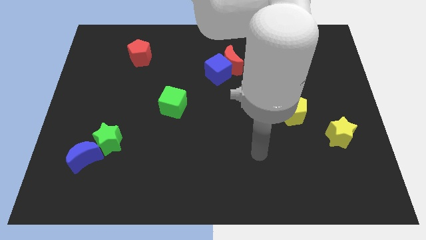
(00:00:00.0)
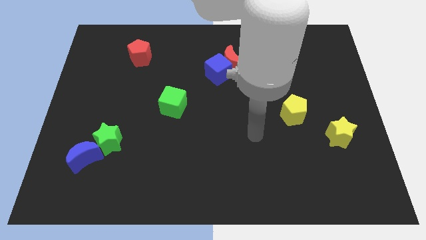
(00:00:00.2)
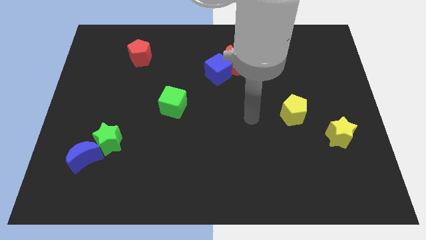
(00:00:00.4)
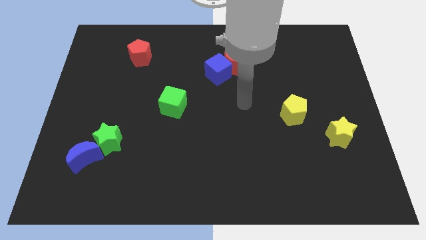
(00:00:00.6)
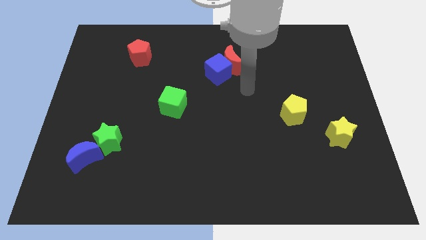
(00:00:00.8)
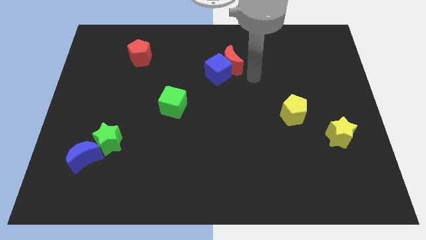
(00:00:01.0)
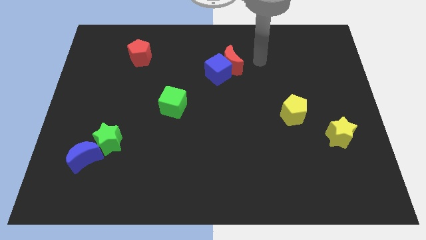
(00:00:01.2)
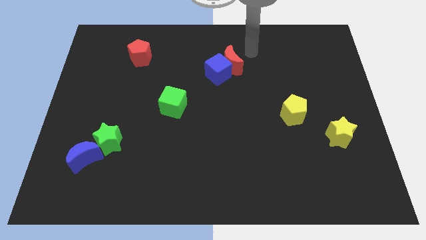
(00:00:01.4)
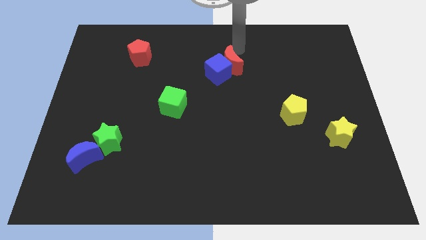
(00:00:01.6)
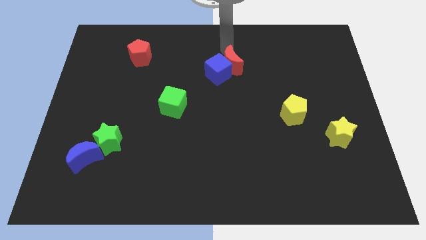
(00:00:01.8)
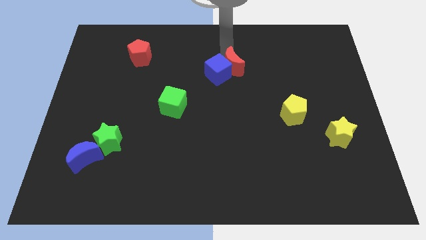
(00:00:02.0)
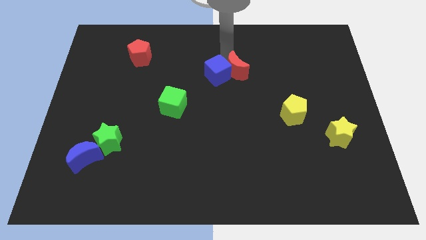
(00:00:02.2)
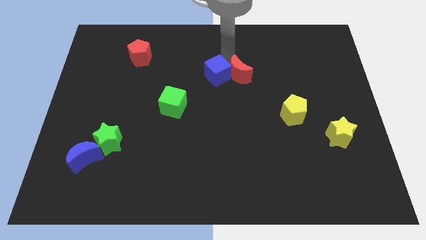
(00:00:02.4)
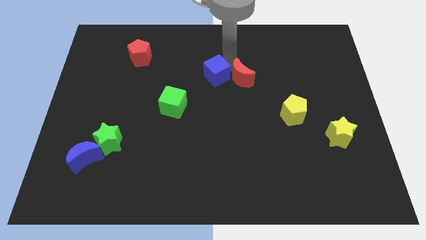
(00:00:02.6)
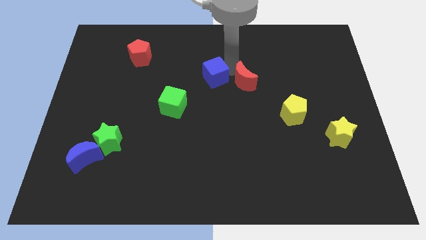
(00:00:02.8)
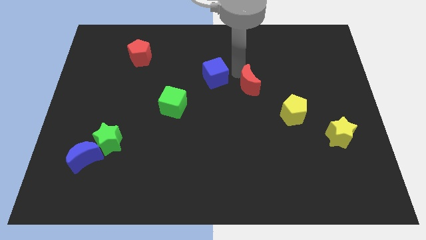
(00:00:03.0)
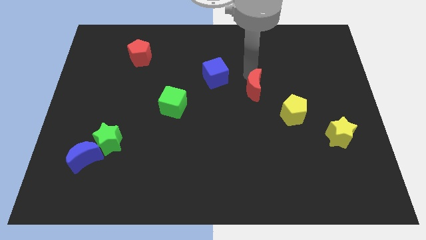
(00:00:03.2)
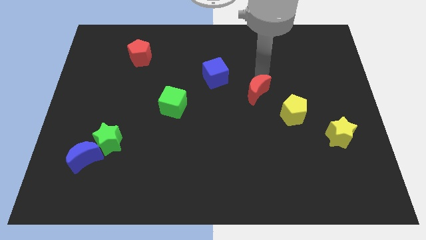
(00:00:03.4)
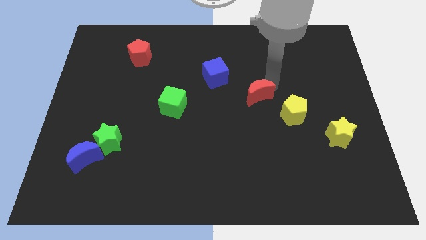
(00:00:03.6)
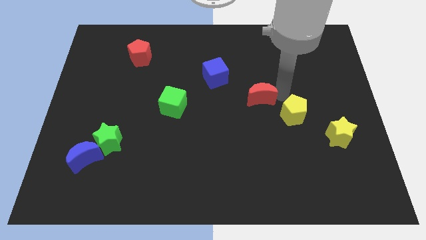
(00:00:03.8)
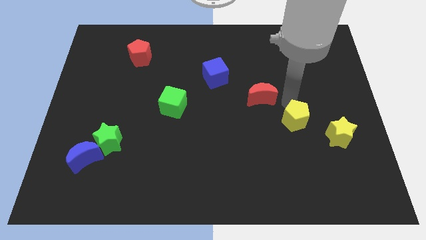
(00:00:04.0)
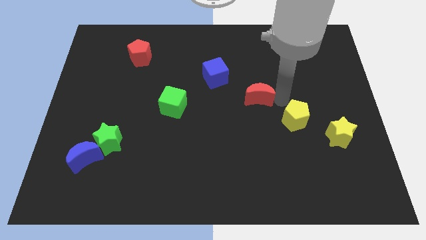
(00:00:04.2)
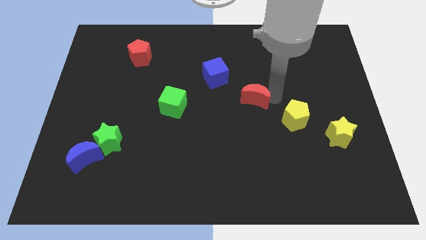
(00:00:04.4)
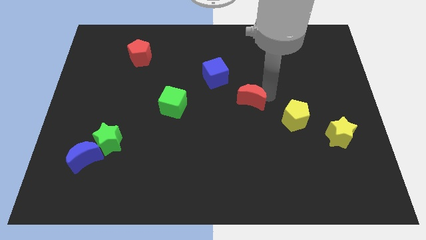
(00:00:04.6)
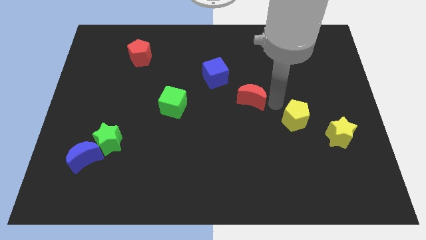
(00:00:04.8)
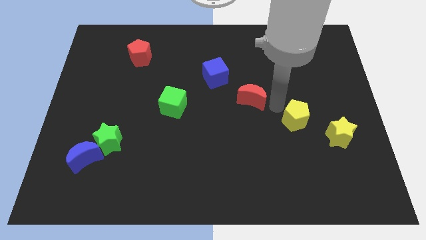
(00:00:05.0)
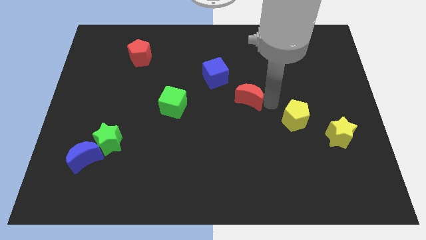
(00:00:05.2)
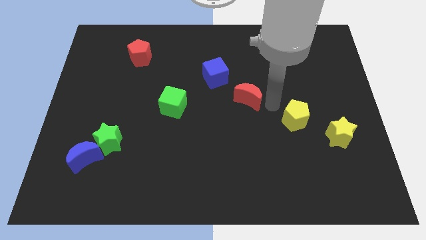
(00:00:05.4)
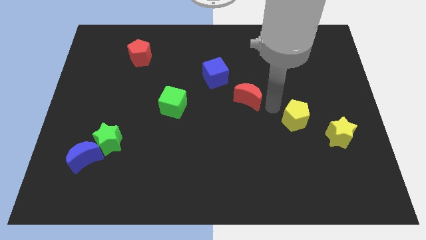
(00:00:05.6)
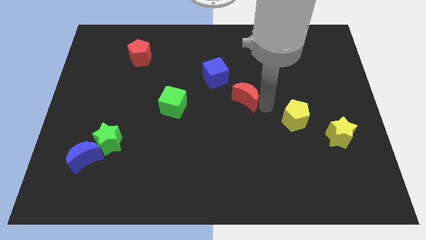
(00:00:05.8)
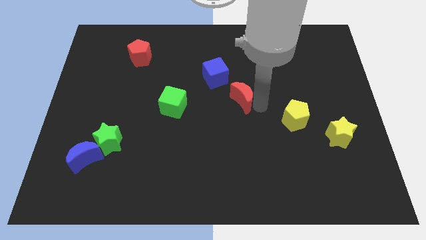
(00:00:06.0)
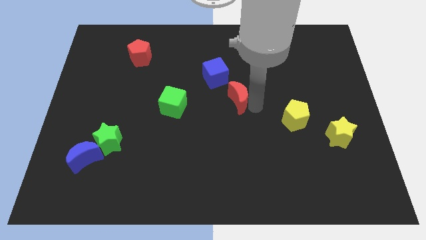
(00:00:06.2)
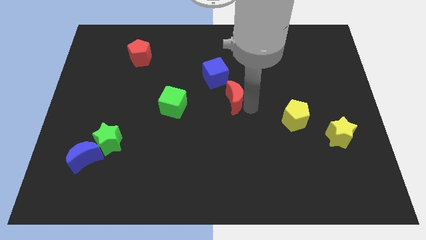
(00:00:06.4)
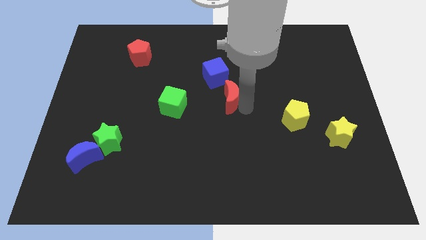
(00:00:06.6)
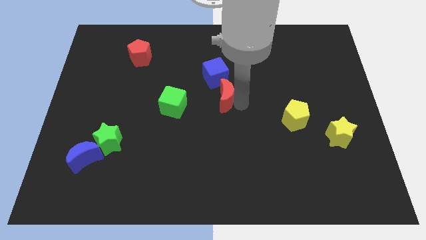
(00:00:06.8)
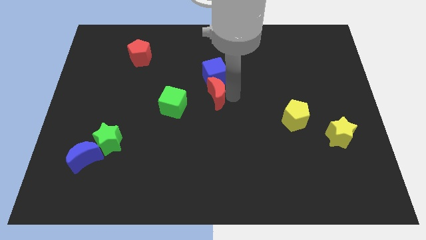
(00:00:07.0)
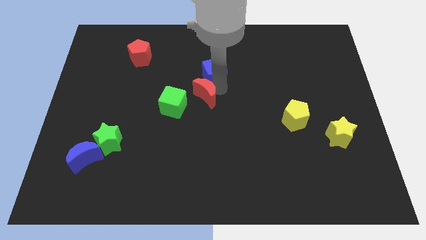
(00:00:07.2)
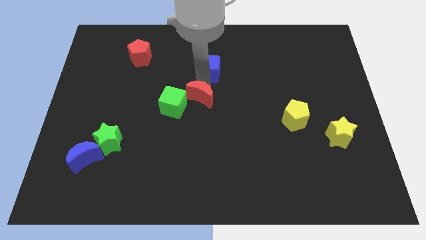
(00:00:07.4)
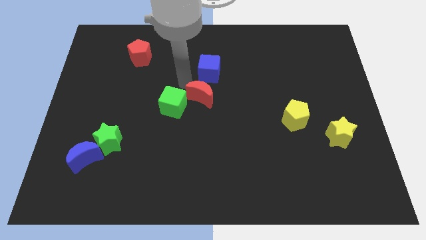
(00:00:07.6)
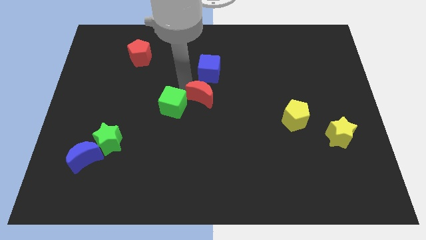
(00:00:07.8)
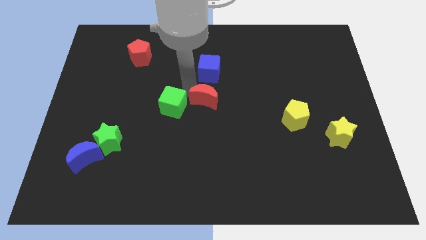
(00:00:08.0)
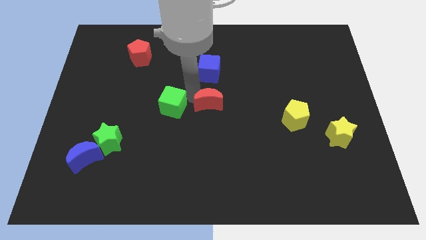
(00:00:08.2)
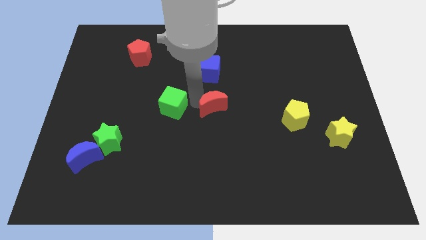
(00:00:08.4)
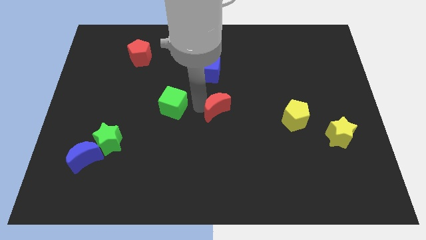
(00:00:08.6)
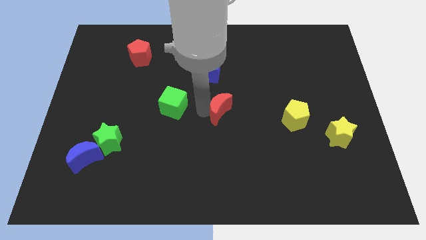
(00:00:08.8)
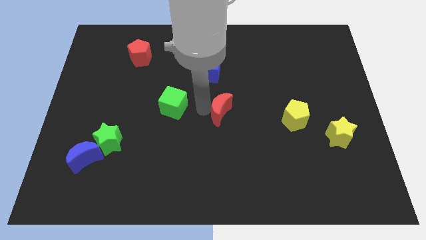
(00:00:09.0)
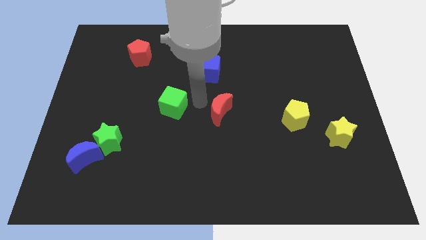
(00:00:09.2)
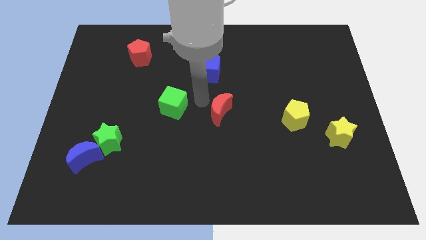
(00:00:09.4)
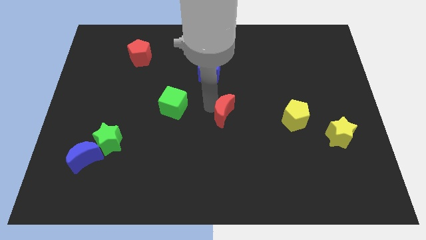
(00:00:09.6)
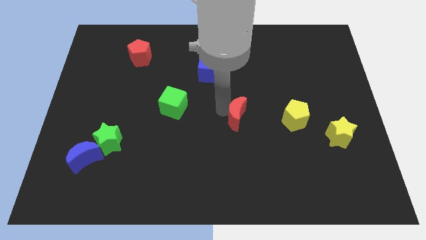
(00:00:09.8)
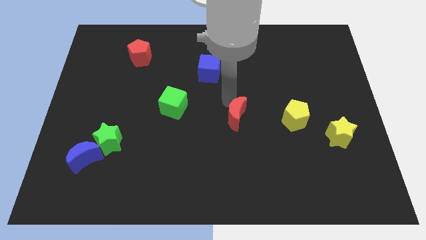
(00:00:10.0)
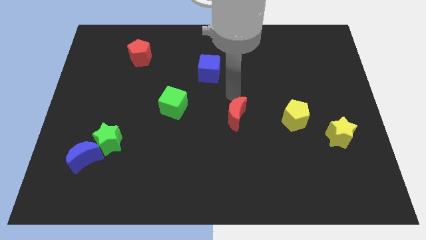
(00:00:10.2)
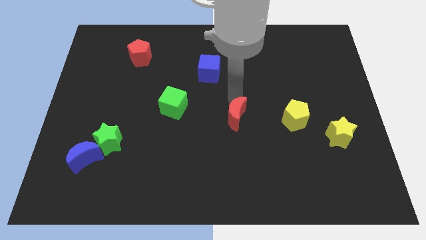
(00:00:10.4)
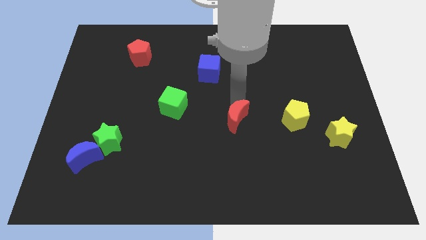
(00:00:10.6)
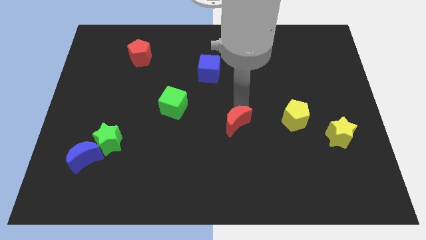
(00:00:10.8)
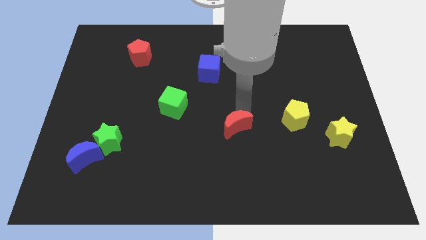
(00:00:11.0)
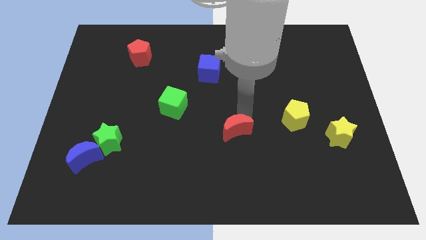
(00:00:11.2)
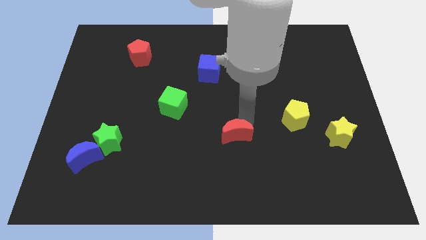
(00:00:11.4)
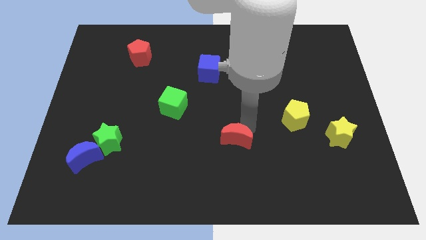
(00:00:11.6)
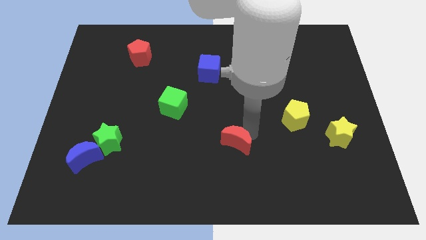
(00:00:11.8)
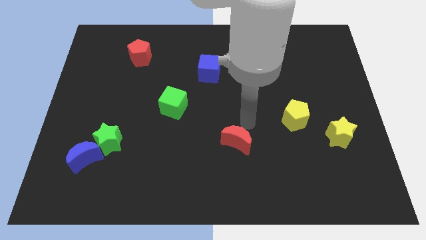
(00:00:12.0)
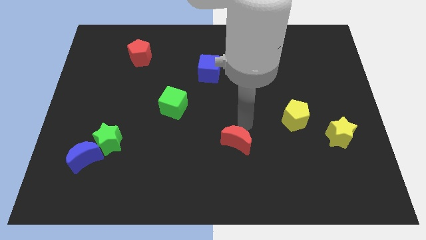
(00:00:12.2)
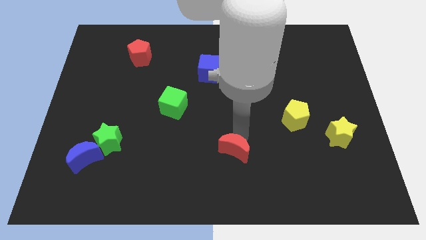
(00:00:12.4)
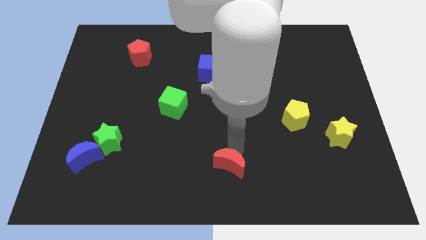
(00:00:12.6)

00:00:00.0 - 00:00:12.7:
slide the red moon to the bottom
